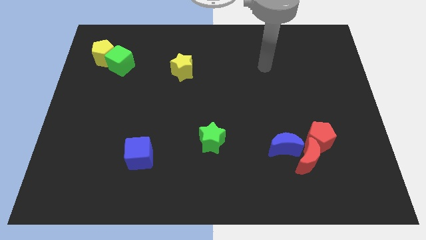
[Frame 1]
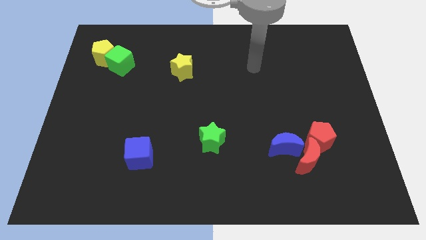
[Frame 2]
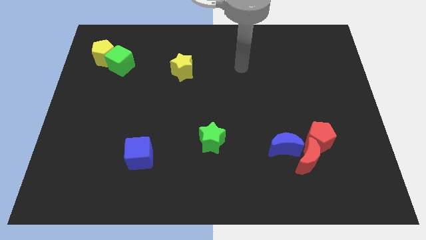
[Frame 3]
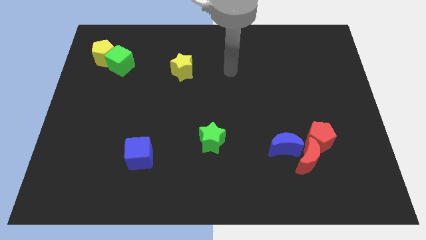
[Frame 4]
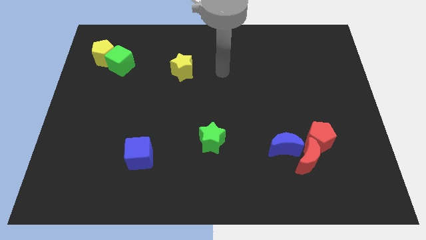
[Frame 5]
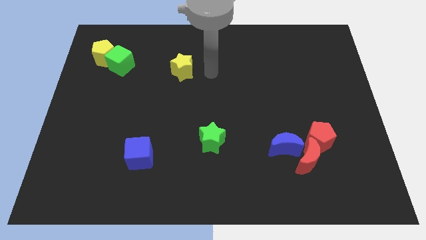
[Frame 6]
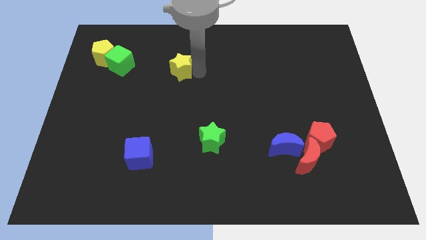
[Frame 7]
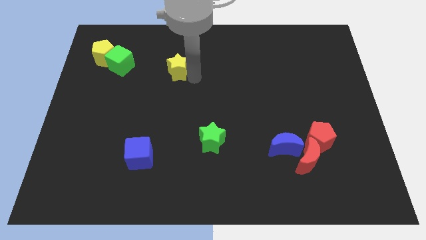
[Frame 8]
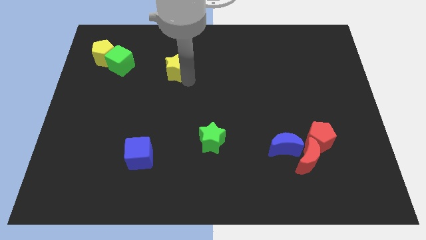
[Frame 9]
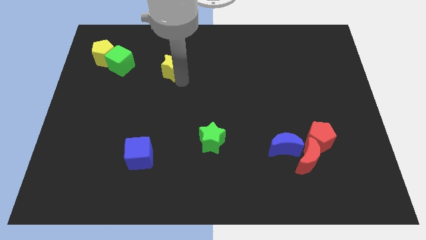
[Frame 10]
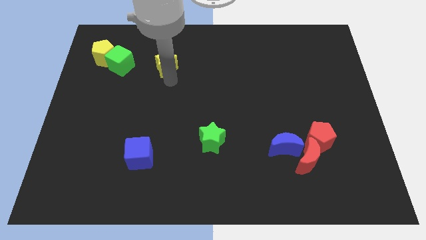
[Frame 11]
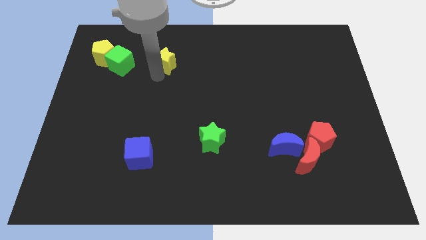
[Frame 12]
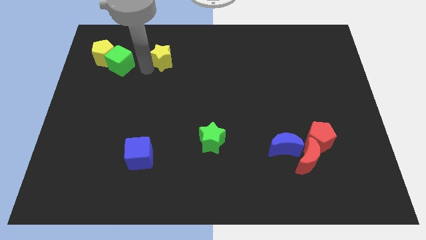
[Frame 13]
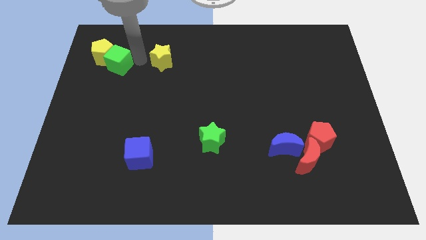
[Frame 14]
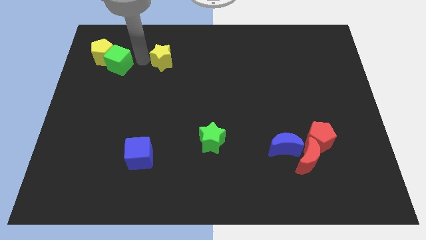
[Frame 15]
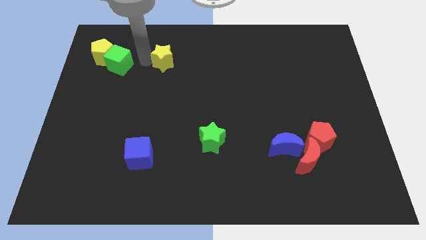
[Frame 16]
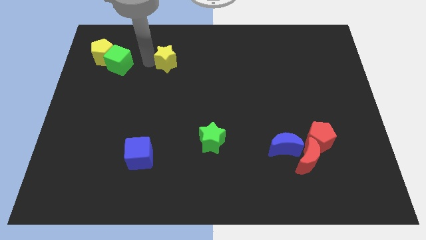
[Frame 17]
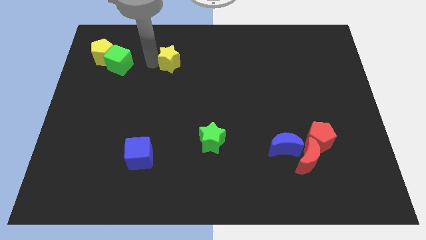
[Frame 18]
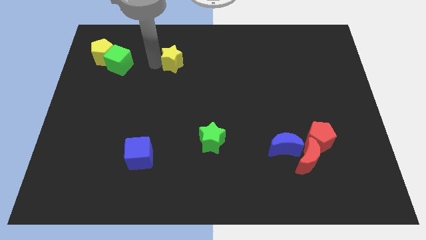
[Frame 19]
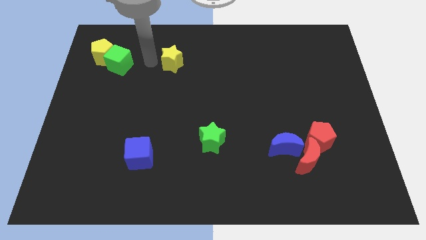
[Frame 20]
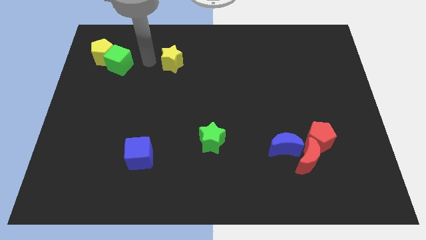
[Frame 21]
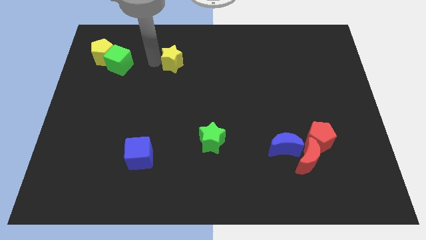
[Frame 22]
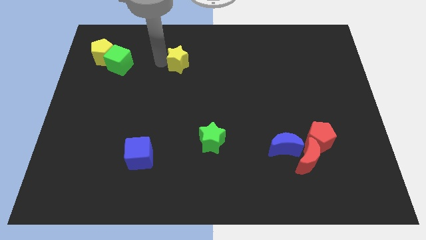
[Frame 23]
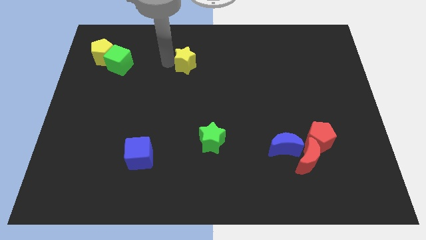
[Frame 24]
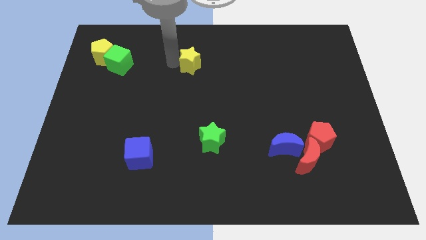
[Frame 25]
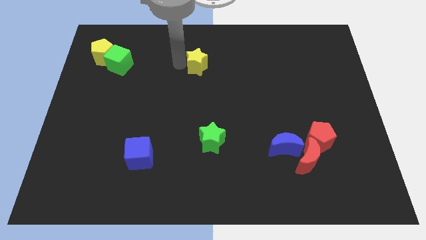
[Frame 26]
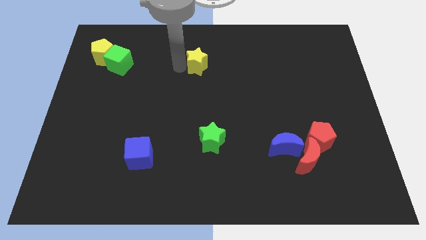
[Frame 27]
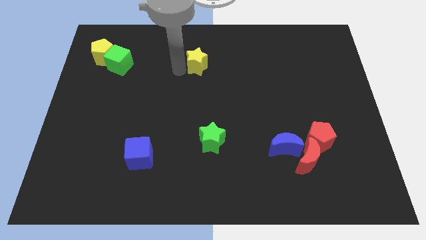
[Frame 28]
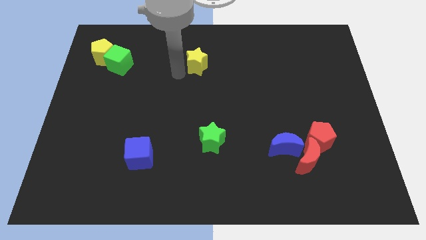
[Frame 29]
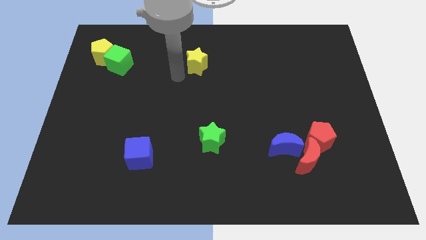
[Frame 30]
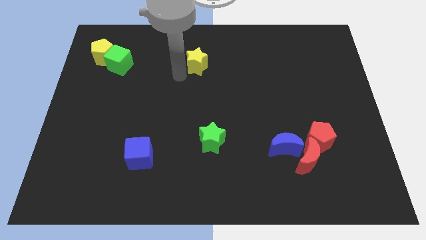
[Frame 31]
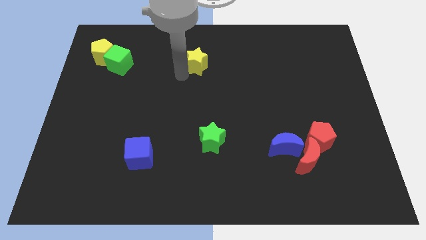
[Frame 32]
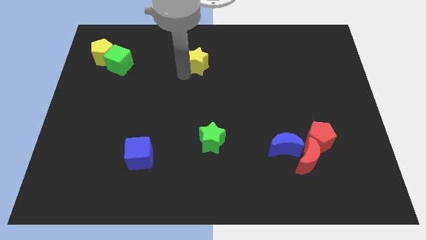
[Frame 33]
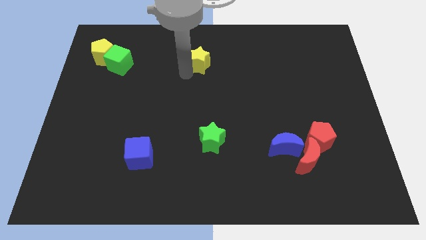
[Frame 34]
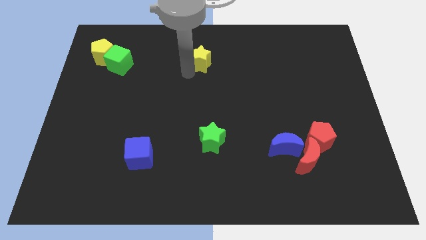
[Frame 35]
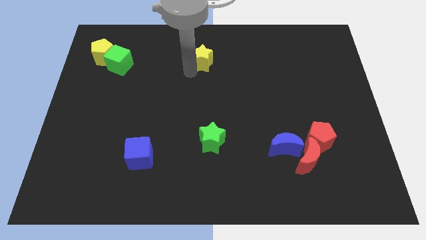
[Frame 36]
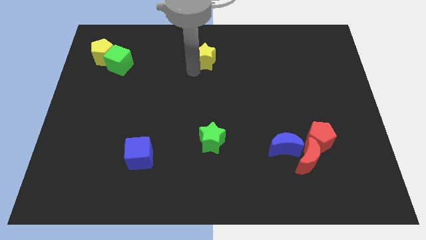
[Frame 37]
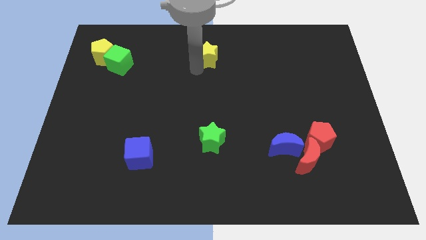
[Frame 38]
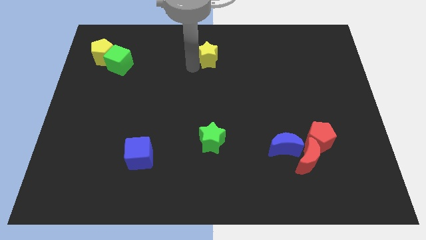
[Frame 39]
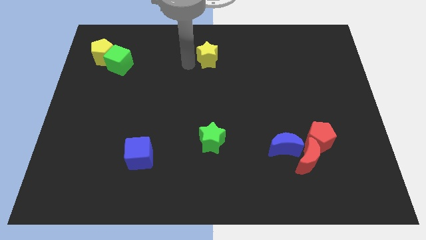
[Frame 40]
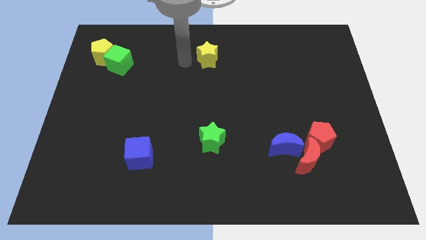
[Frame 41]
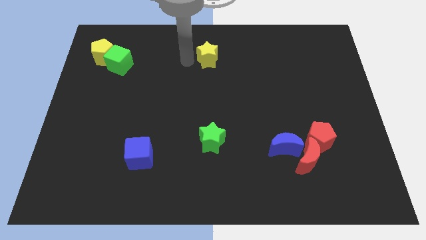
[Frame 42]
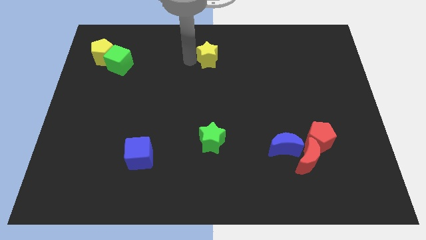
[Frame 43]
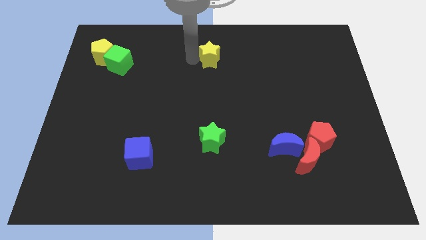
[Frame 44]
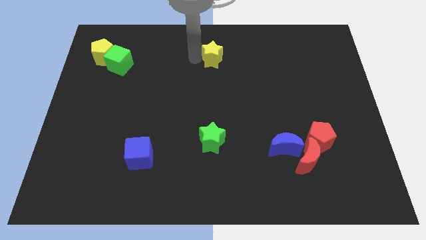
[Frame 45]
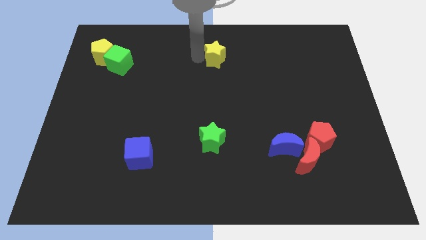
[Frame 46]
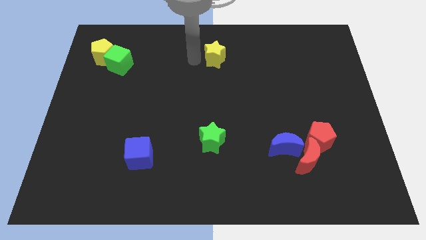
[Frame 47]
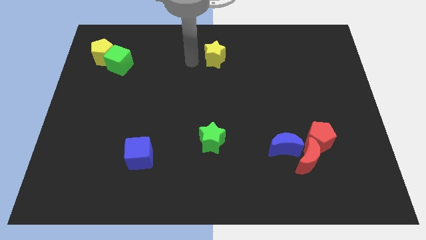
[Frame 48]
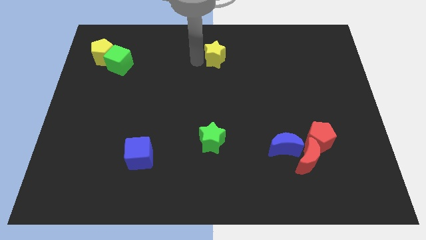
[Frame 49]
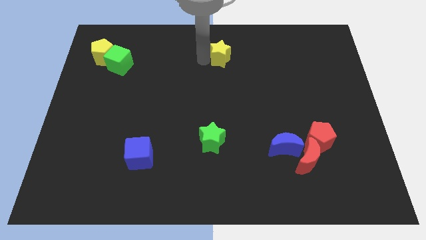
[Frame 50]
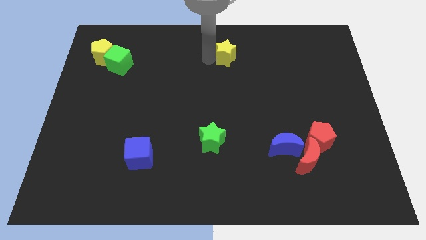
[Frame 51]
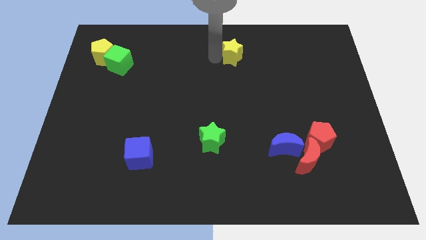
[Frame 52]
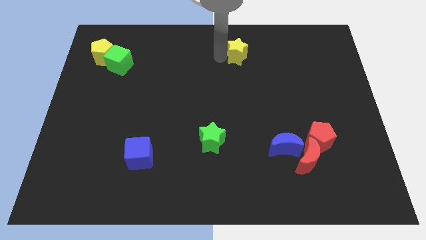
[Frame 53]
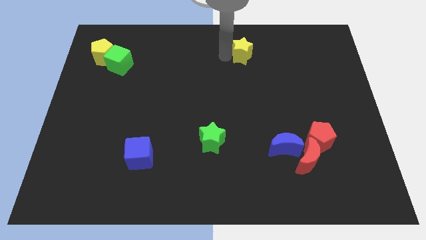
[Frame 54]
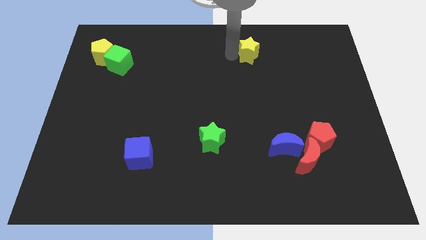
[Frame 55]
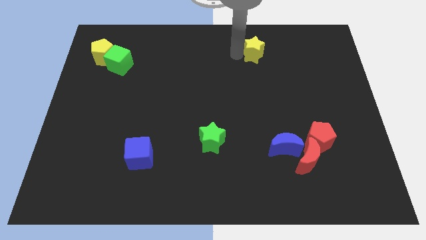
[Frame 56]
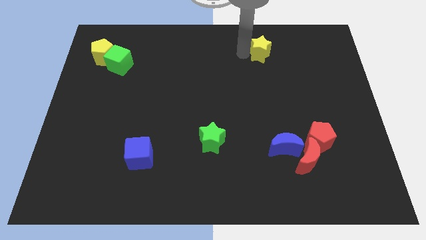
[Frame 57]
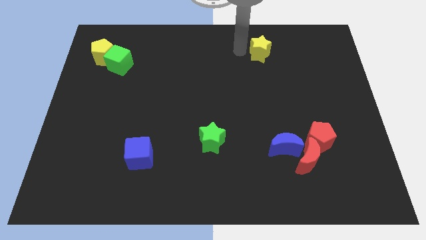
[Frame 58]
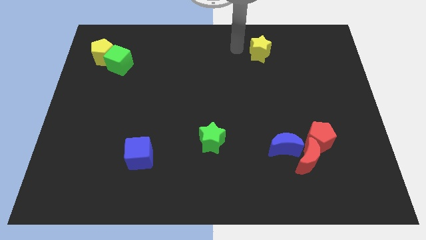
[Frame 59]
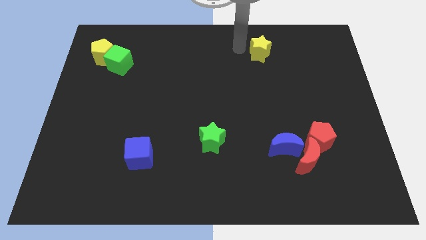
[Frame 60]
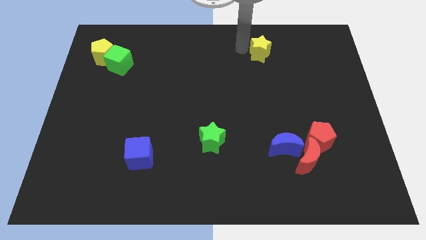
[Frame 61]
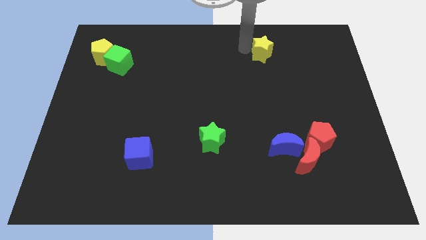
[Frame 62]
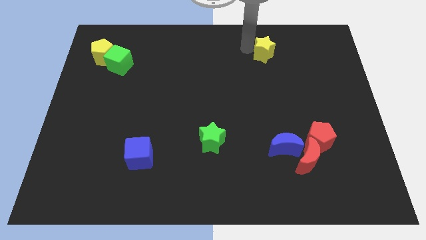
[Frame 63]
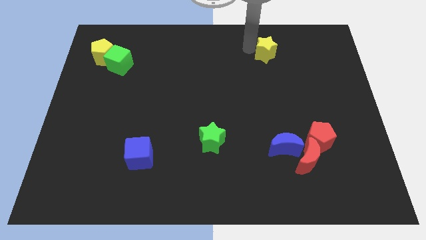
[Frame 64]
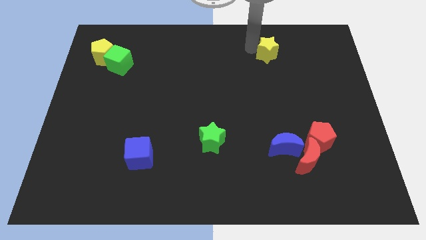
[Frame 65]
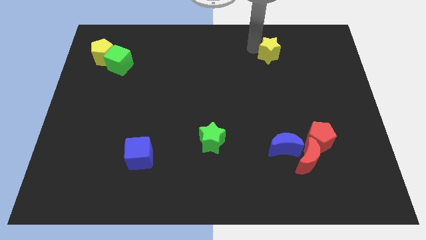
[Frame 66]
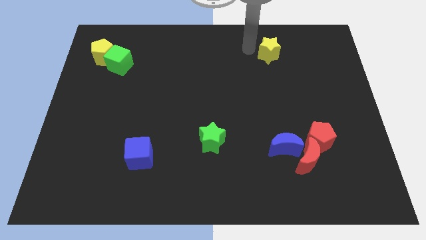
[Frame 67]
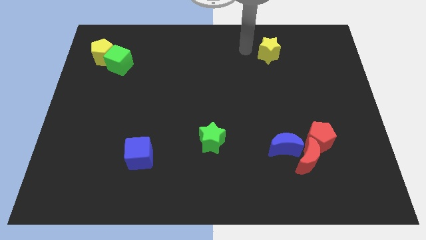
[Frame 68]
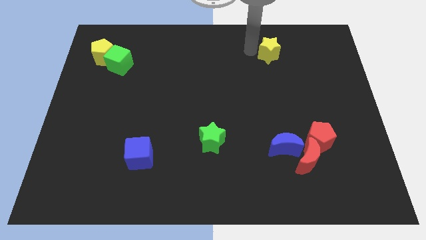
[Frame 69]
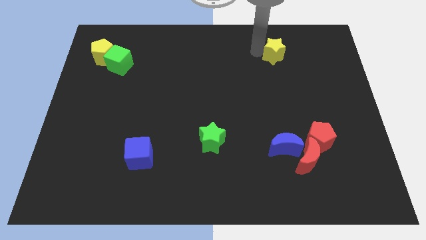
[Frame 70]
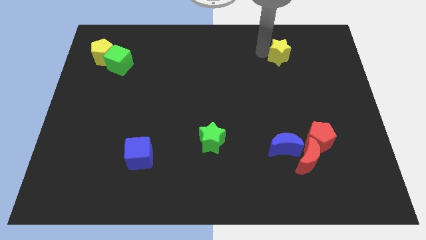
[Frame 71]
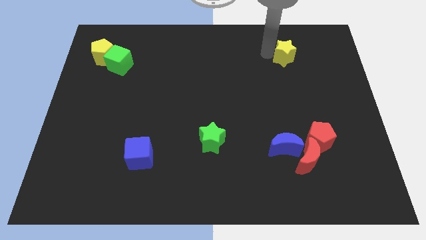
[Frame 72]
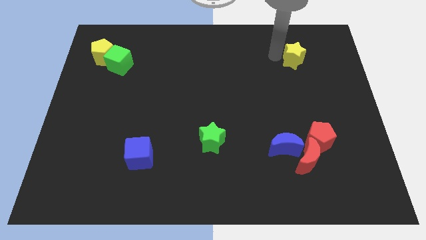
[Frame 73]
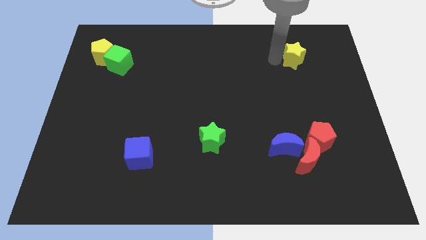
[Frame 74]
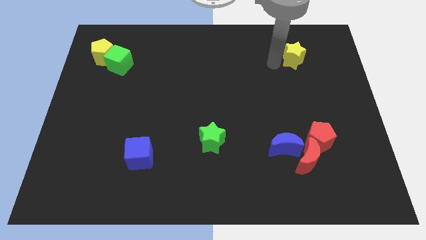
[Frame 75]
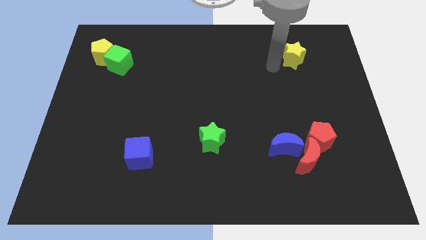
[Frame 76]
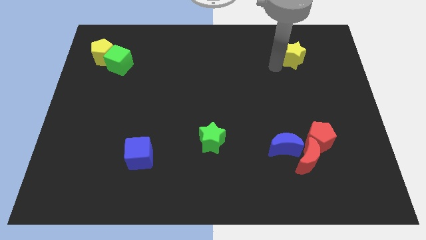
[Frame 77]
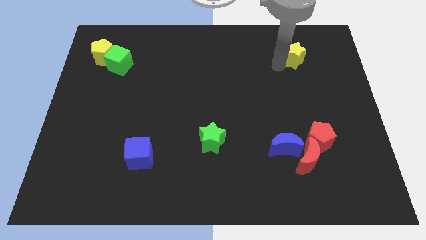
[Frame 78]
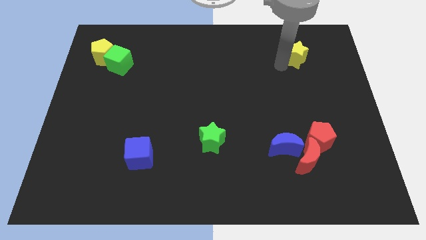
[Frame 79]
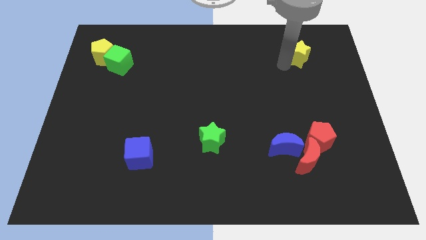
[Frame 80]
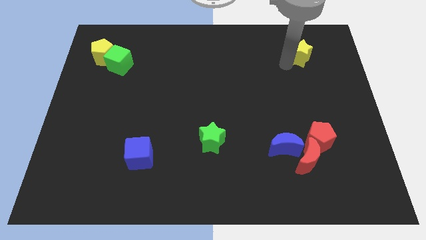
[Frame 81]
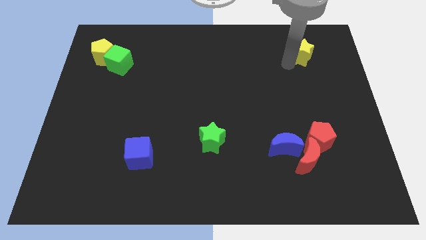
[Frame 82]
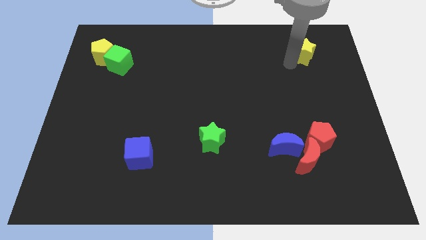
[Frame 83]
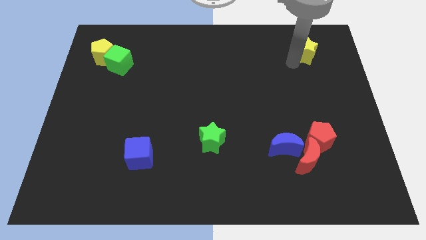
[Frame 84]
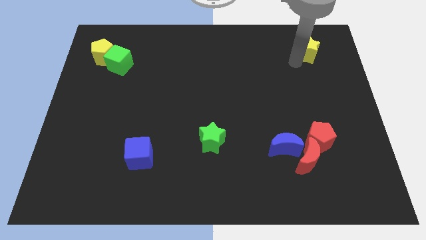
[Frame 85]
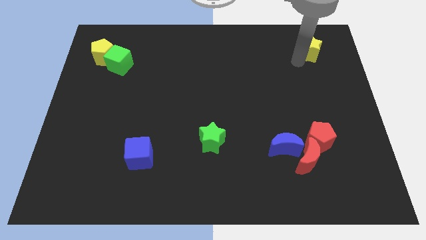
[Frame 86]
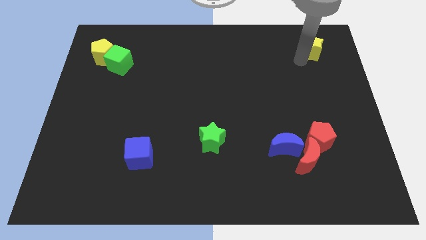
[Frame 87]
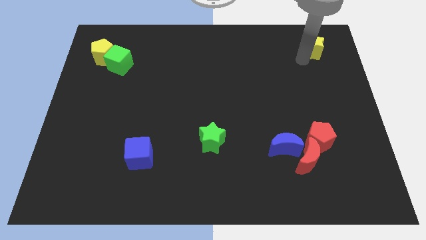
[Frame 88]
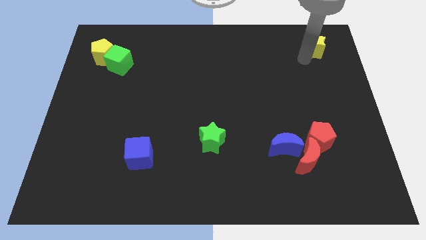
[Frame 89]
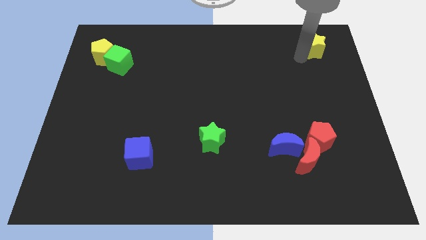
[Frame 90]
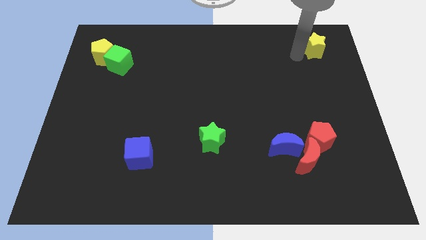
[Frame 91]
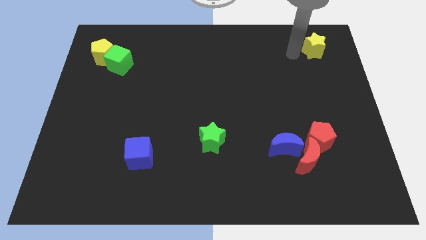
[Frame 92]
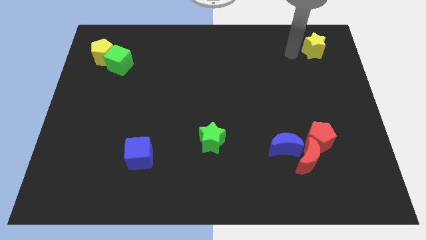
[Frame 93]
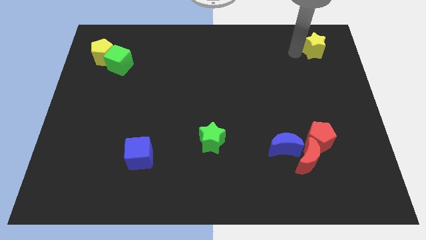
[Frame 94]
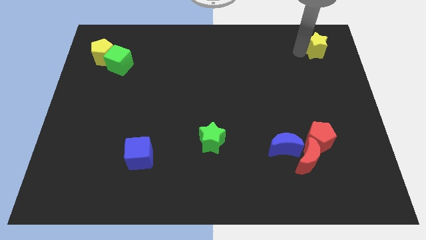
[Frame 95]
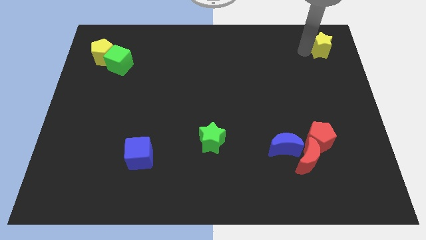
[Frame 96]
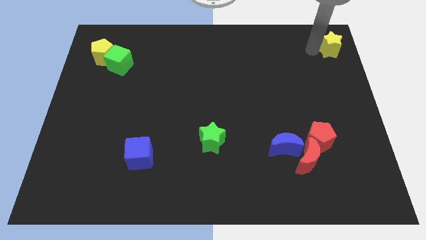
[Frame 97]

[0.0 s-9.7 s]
push the yellow star to the top right
